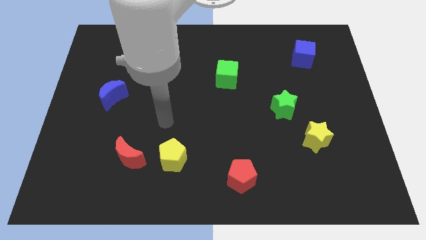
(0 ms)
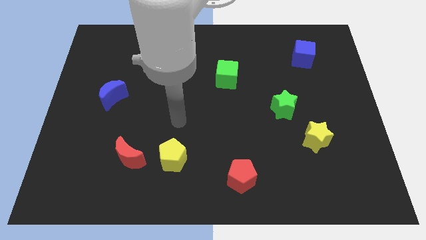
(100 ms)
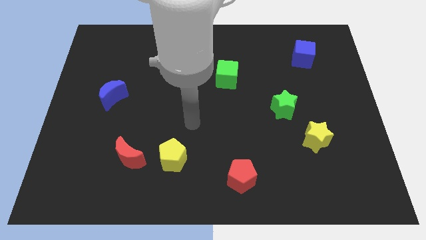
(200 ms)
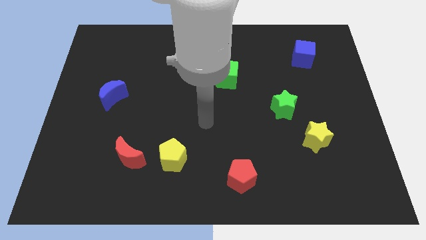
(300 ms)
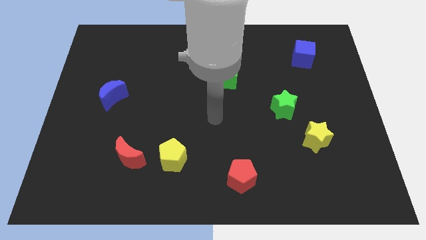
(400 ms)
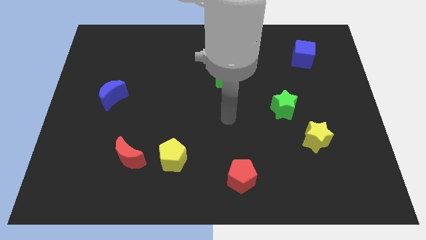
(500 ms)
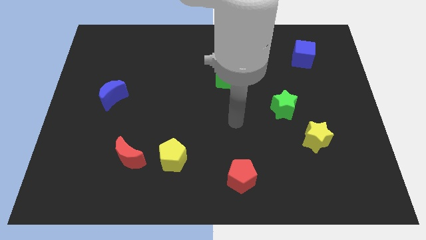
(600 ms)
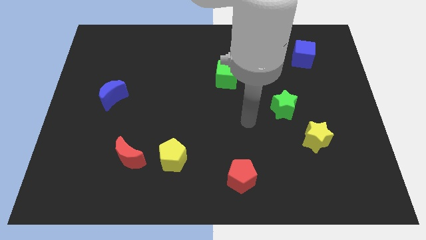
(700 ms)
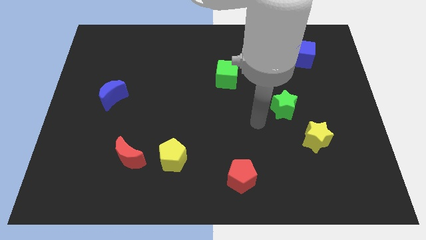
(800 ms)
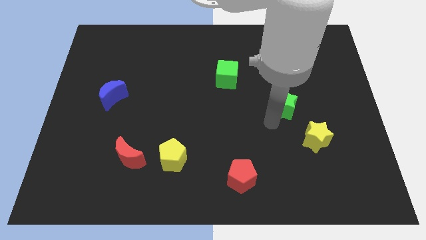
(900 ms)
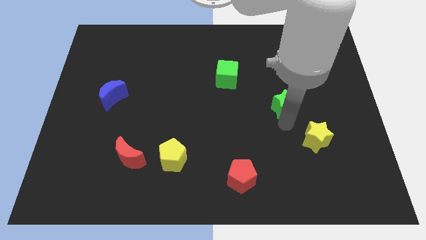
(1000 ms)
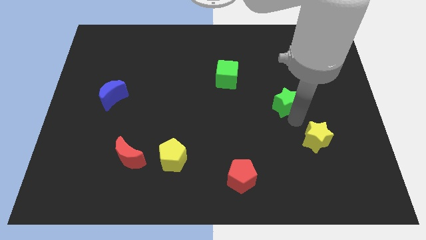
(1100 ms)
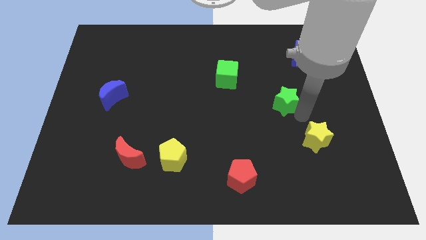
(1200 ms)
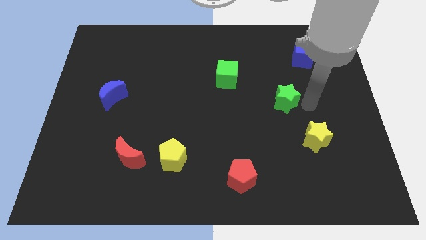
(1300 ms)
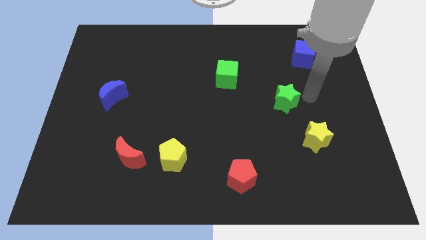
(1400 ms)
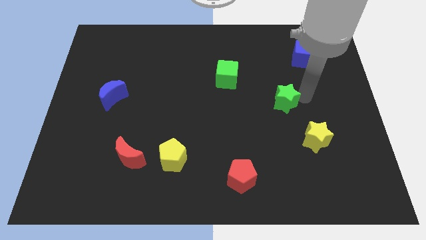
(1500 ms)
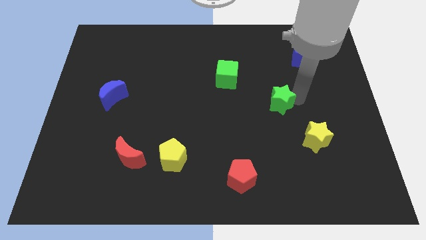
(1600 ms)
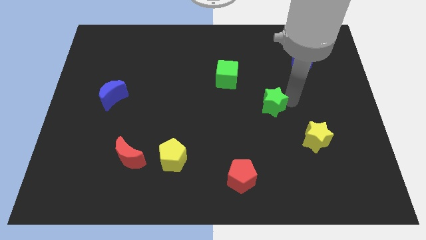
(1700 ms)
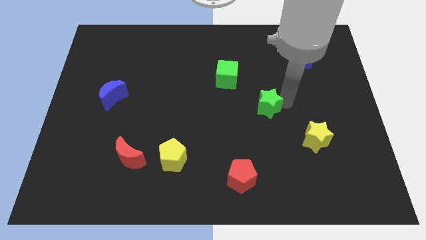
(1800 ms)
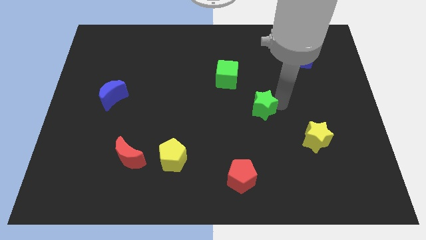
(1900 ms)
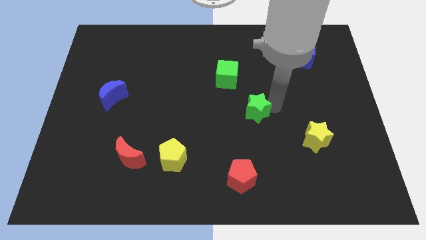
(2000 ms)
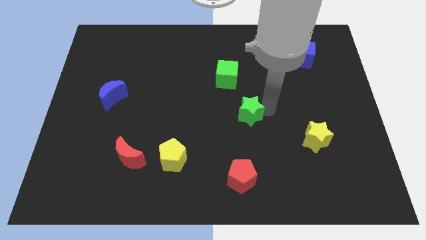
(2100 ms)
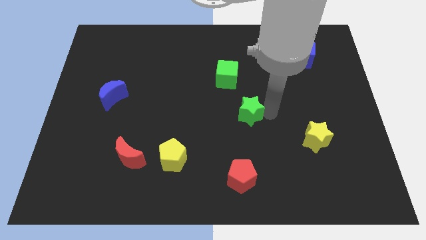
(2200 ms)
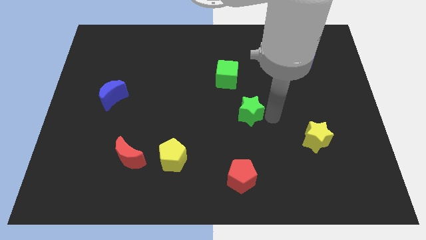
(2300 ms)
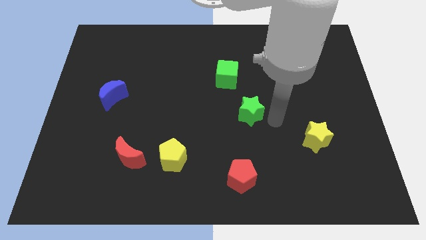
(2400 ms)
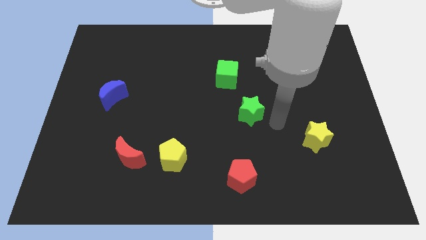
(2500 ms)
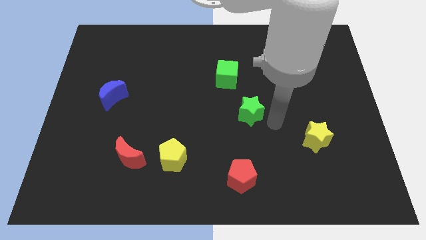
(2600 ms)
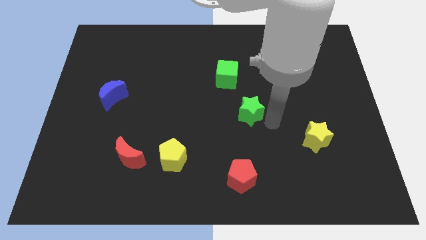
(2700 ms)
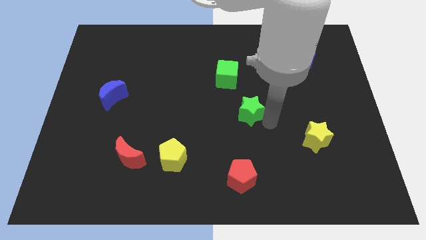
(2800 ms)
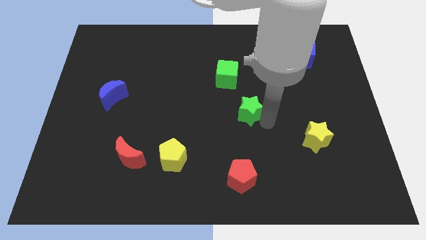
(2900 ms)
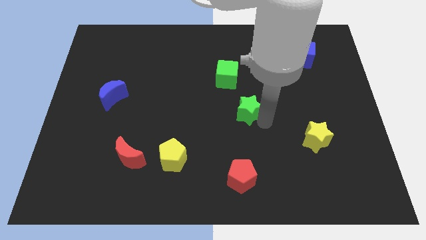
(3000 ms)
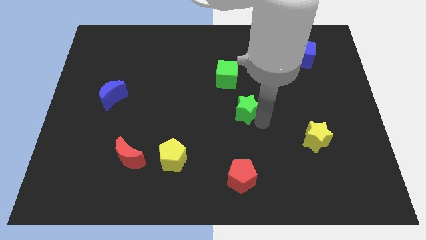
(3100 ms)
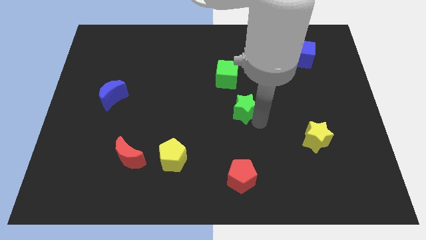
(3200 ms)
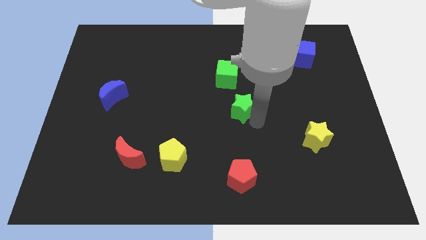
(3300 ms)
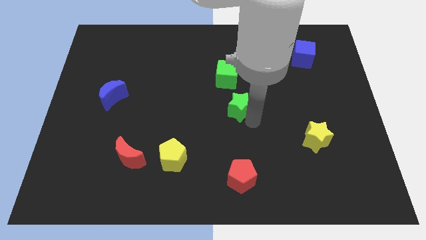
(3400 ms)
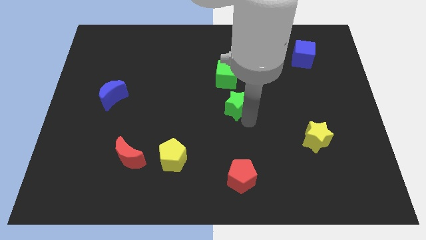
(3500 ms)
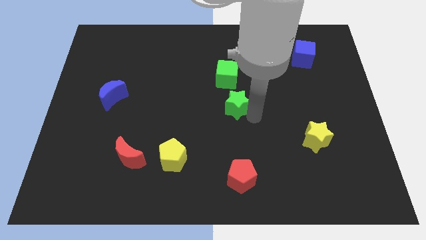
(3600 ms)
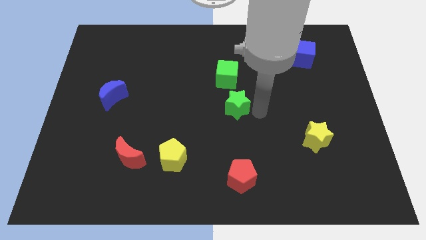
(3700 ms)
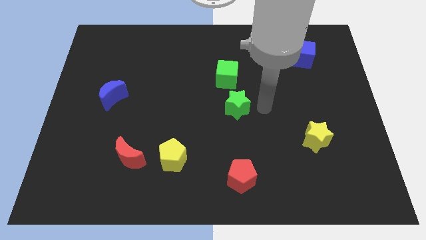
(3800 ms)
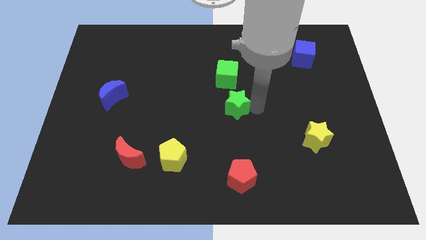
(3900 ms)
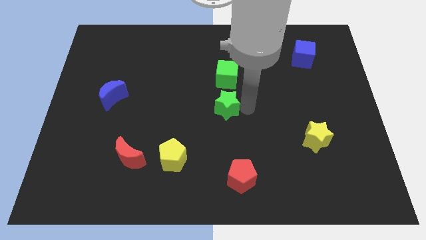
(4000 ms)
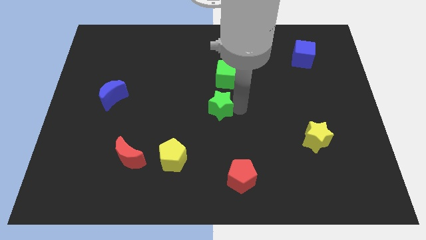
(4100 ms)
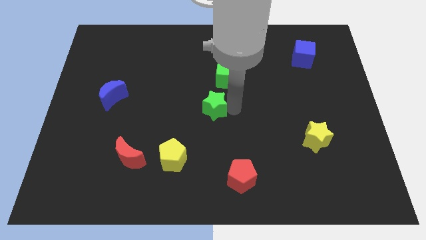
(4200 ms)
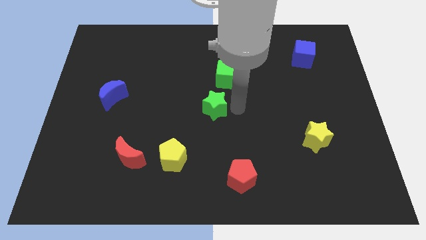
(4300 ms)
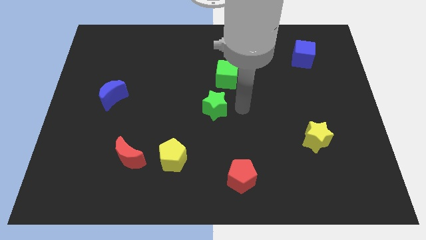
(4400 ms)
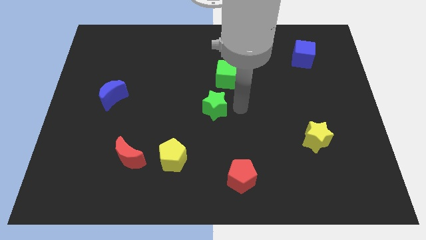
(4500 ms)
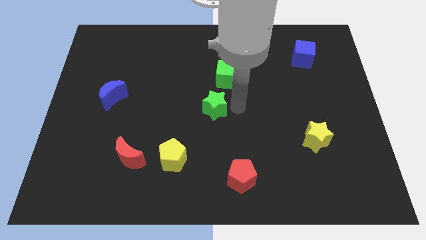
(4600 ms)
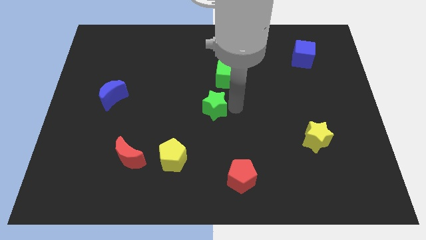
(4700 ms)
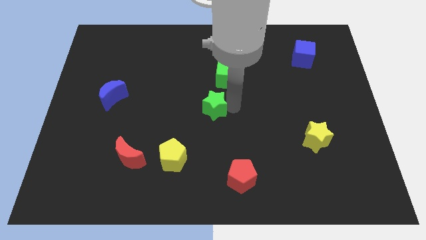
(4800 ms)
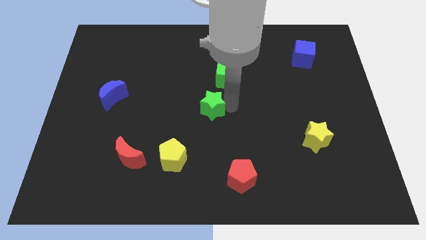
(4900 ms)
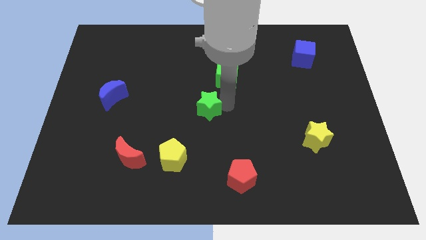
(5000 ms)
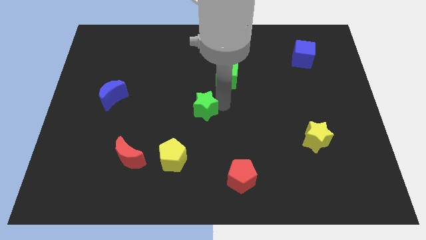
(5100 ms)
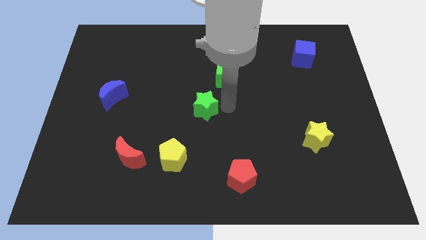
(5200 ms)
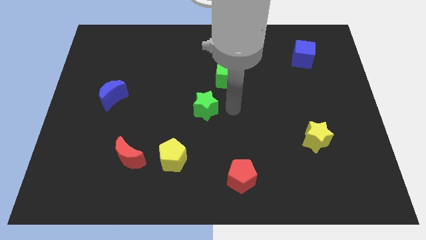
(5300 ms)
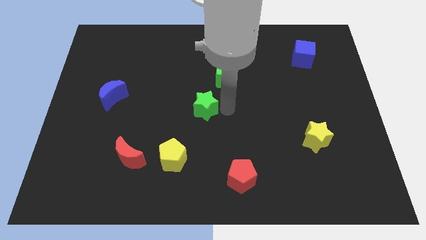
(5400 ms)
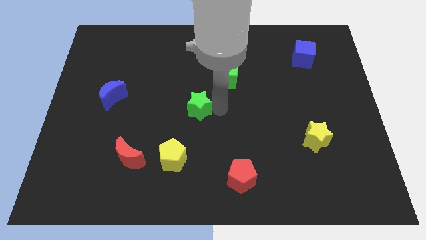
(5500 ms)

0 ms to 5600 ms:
slide the green star to the left

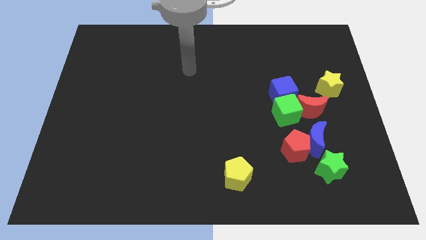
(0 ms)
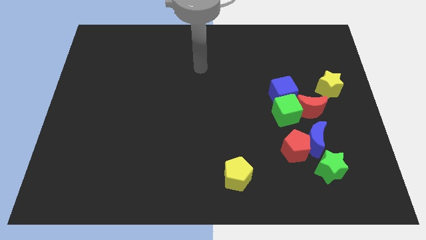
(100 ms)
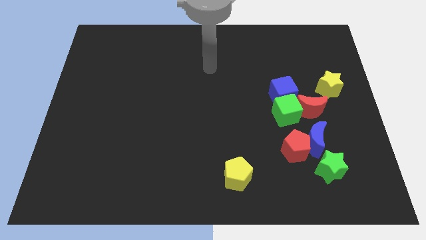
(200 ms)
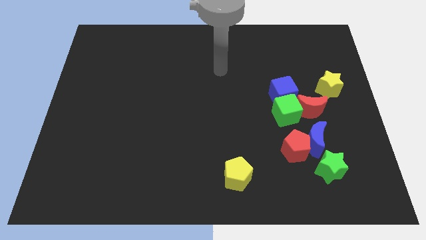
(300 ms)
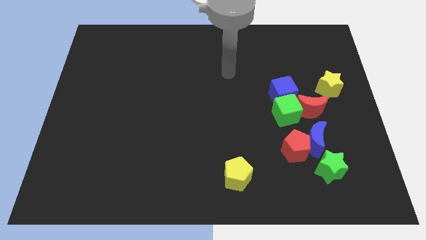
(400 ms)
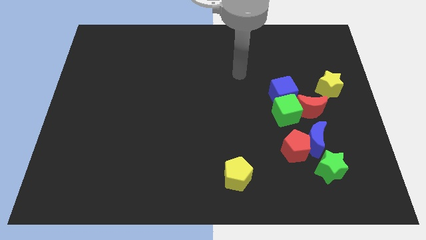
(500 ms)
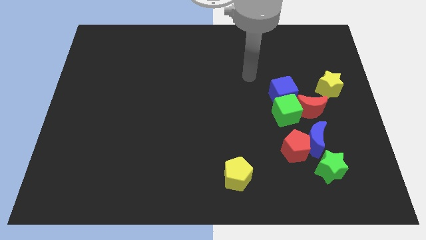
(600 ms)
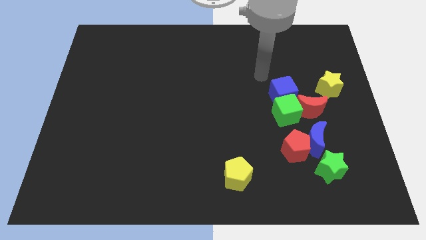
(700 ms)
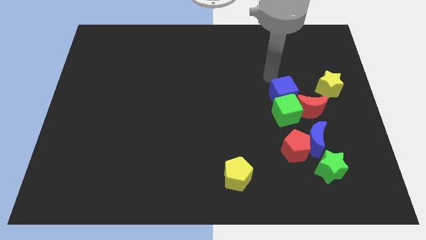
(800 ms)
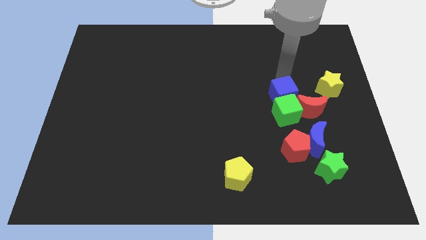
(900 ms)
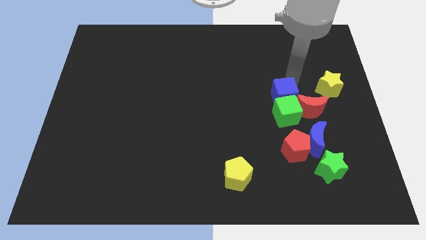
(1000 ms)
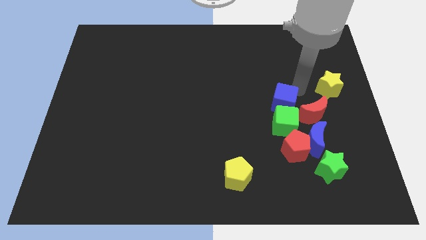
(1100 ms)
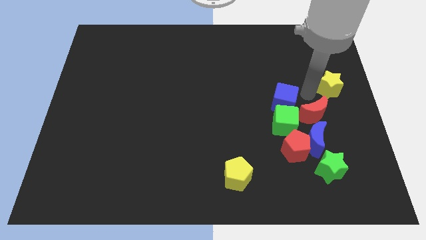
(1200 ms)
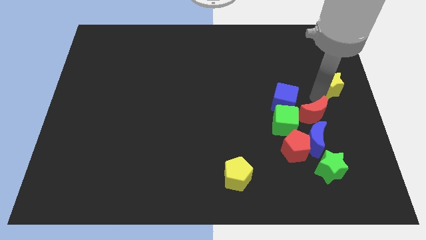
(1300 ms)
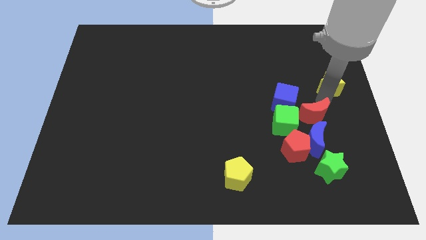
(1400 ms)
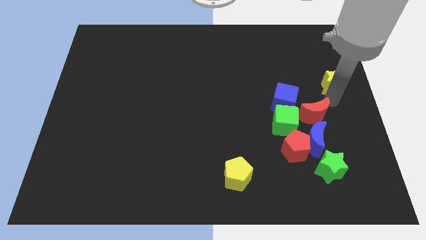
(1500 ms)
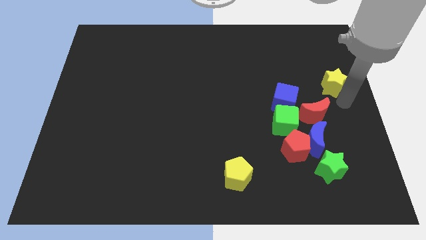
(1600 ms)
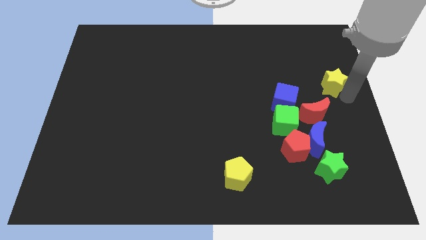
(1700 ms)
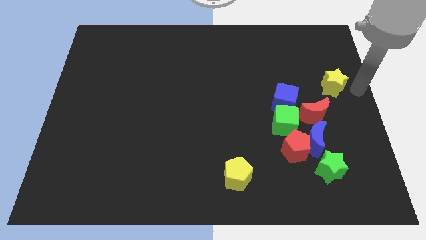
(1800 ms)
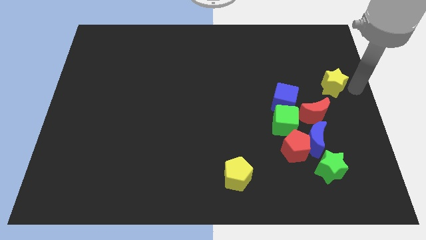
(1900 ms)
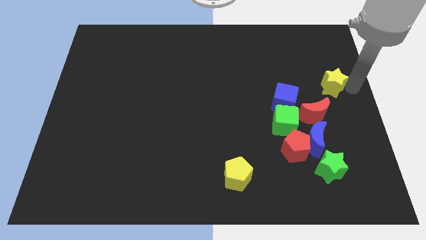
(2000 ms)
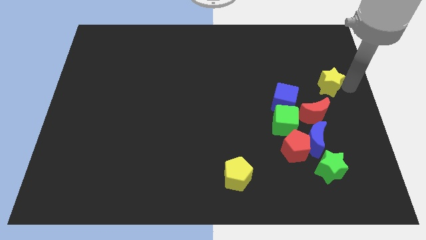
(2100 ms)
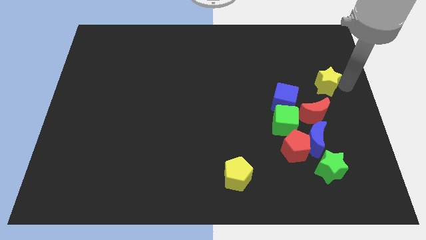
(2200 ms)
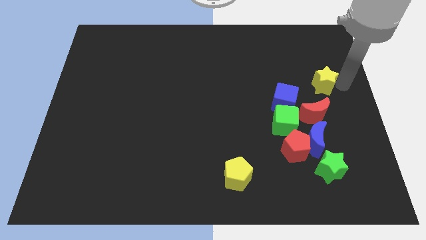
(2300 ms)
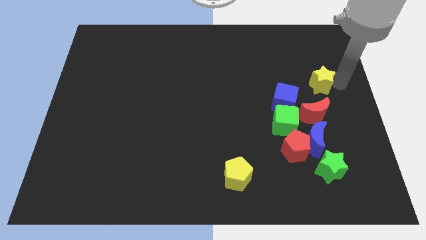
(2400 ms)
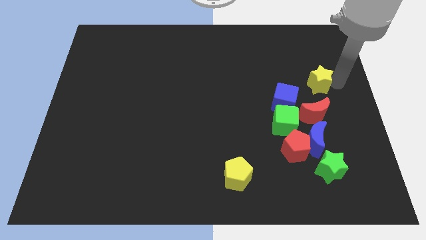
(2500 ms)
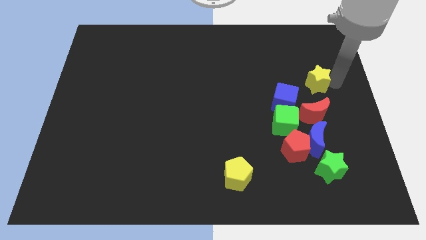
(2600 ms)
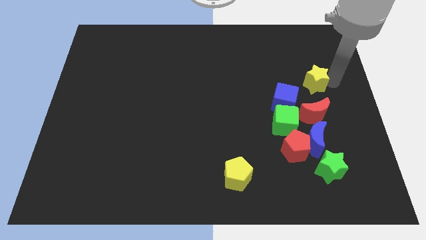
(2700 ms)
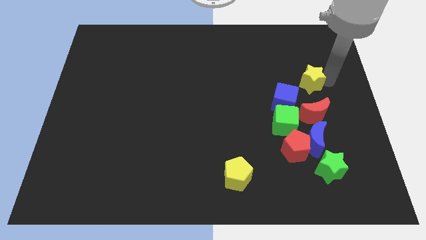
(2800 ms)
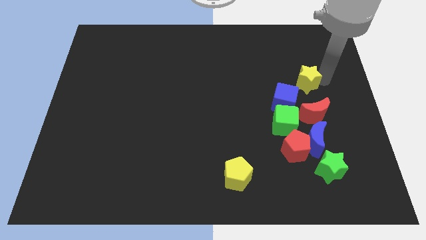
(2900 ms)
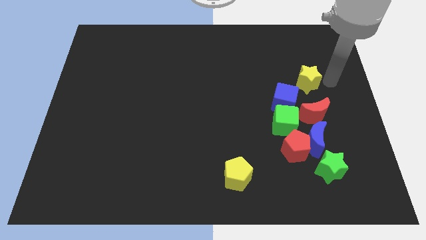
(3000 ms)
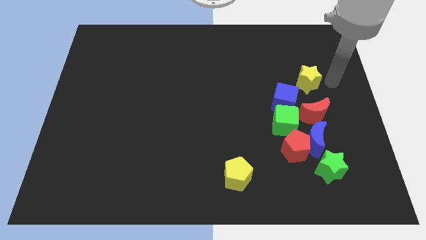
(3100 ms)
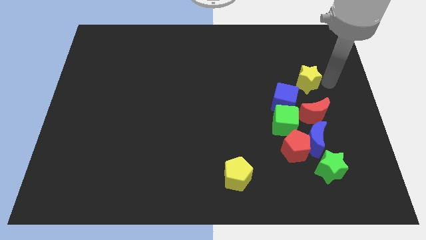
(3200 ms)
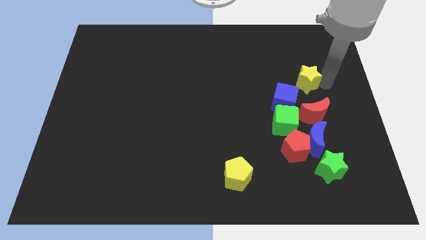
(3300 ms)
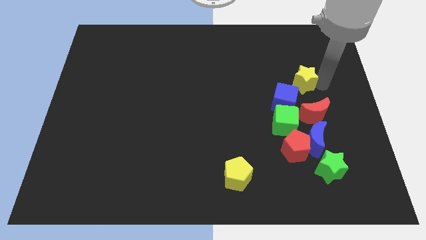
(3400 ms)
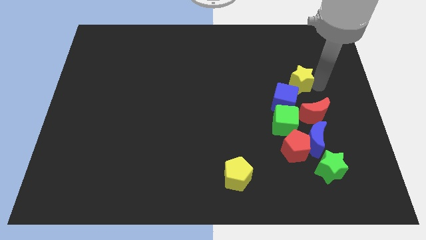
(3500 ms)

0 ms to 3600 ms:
slightly move the yellow star to the left
